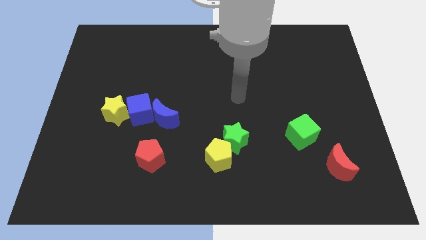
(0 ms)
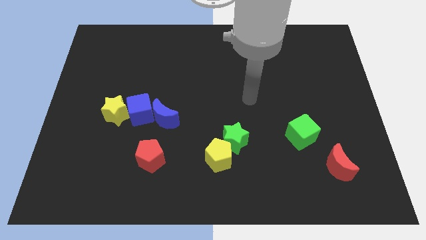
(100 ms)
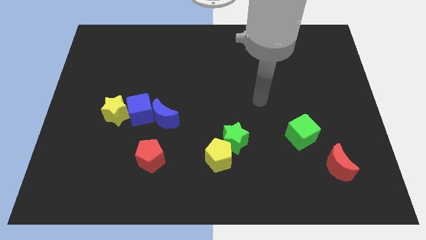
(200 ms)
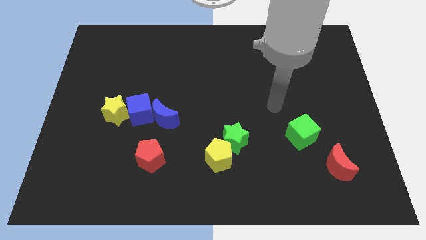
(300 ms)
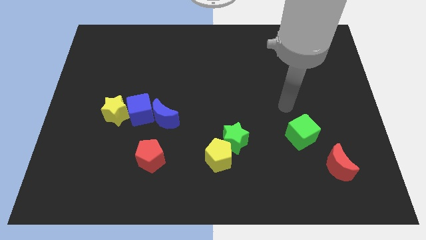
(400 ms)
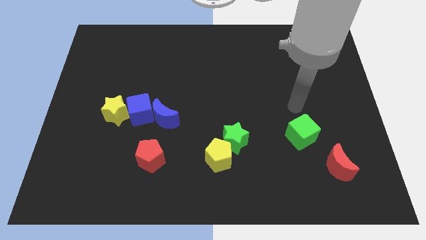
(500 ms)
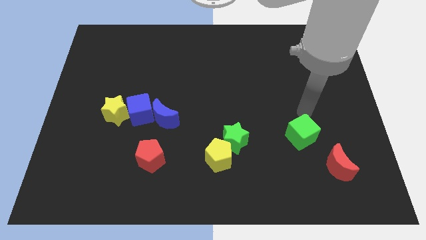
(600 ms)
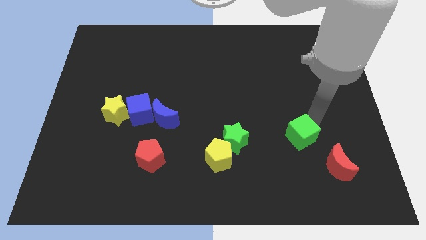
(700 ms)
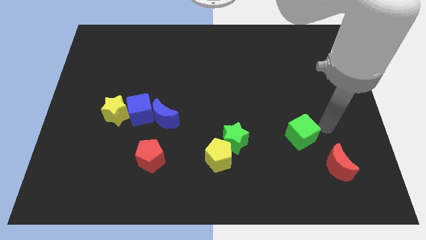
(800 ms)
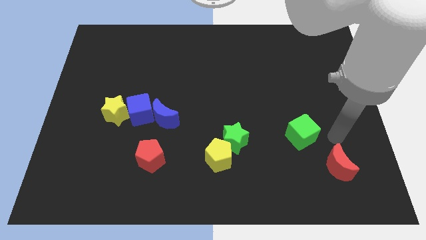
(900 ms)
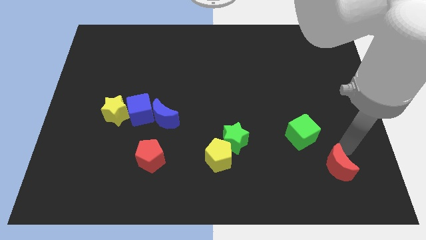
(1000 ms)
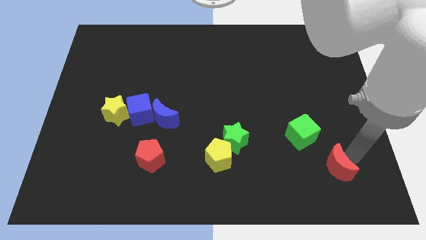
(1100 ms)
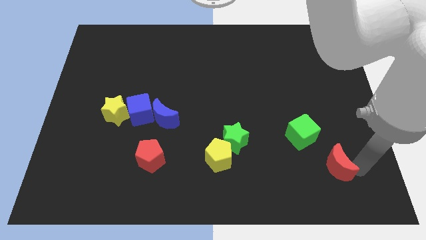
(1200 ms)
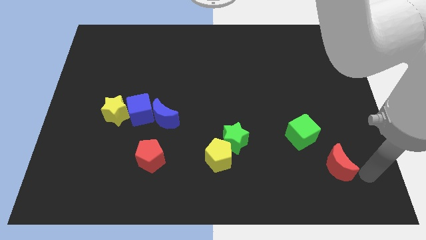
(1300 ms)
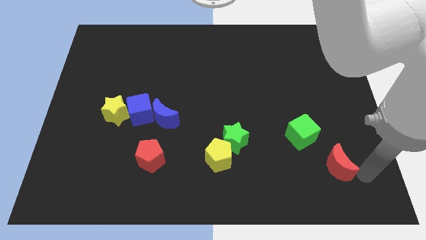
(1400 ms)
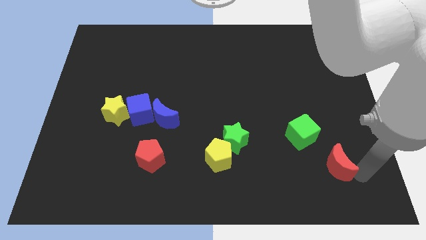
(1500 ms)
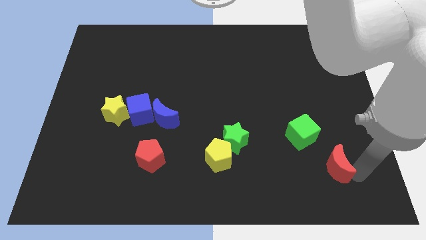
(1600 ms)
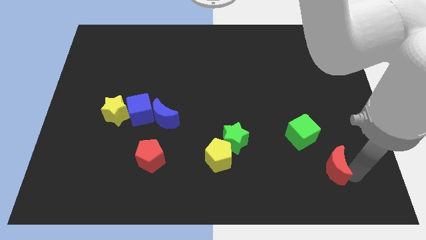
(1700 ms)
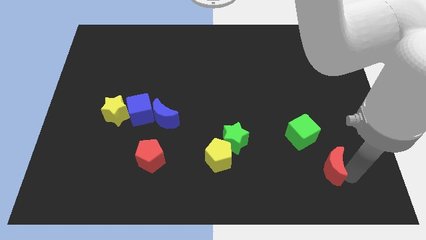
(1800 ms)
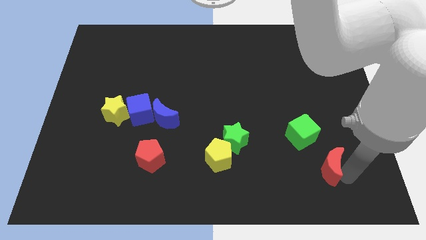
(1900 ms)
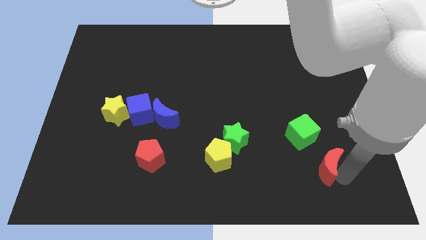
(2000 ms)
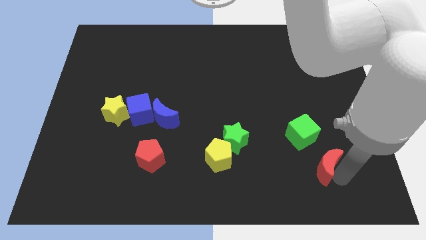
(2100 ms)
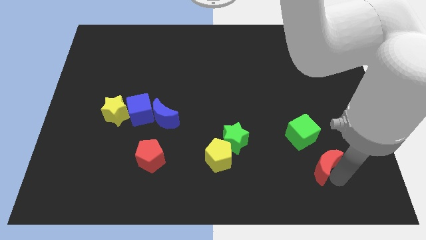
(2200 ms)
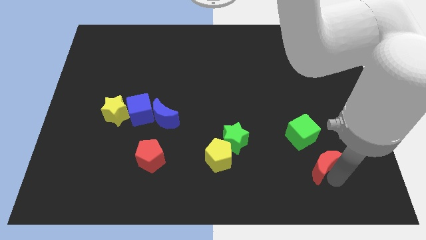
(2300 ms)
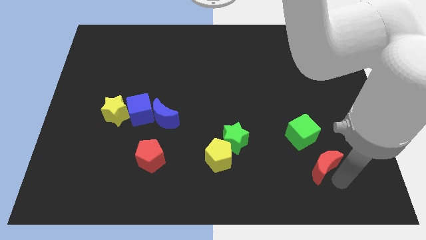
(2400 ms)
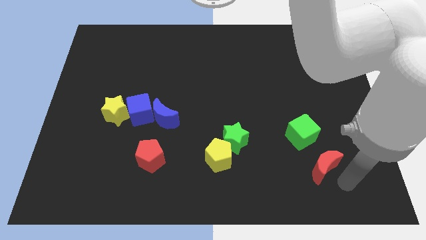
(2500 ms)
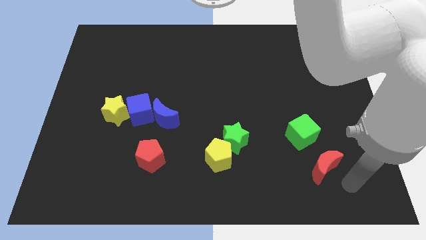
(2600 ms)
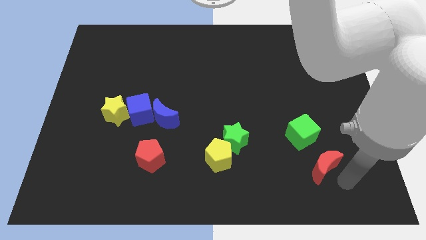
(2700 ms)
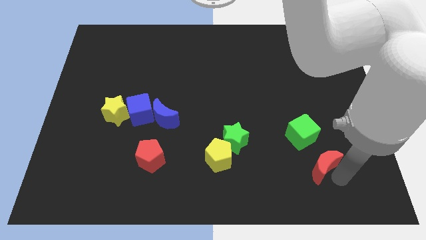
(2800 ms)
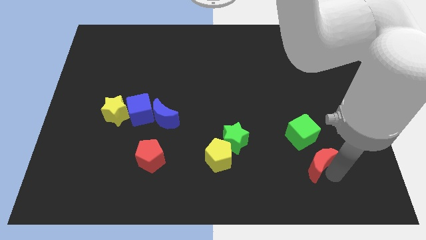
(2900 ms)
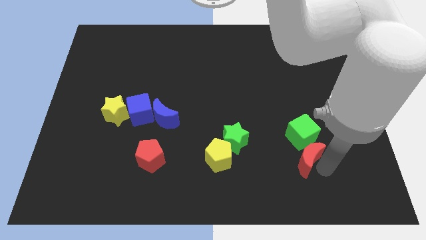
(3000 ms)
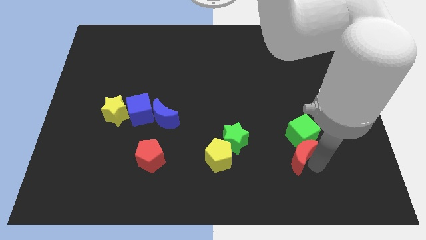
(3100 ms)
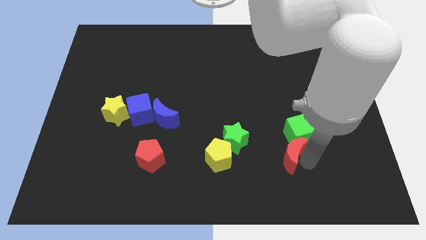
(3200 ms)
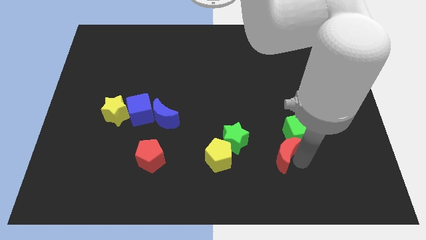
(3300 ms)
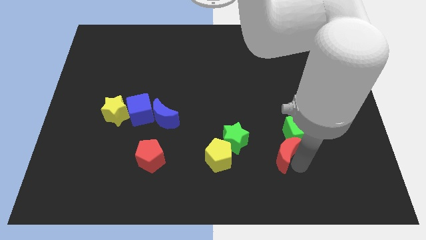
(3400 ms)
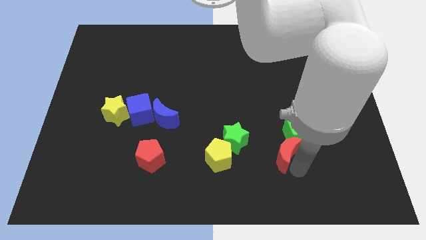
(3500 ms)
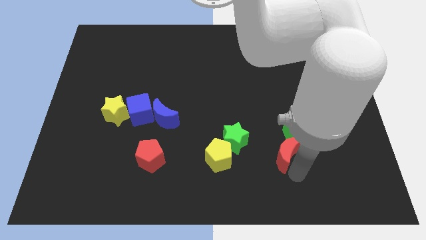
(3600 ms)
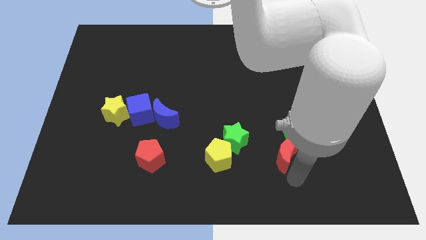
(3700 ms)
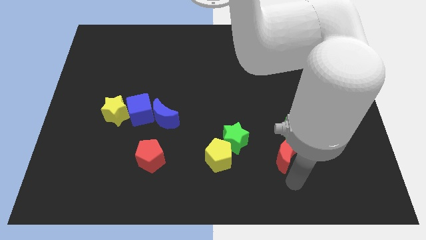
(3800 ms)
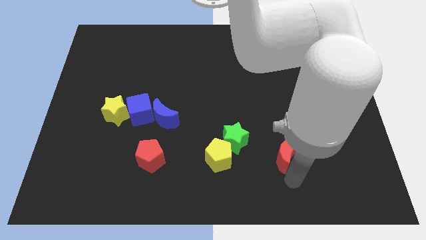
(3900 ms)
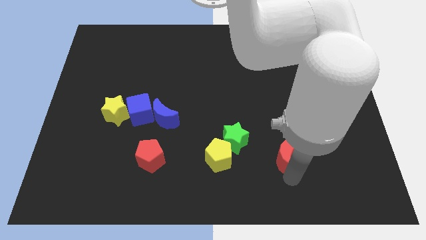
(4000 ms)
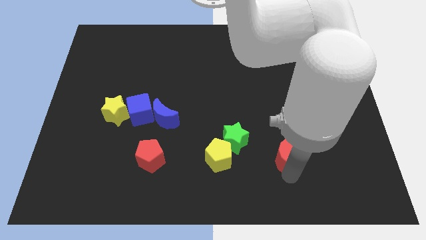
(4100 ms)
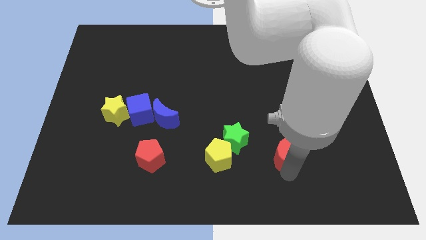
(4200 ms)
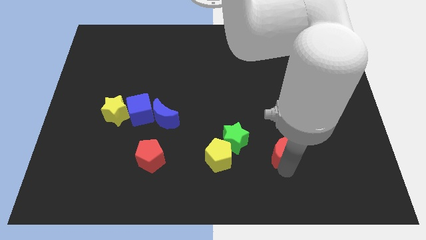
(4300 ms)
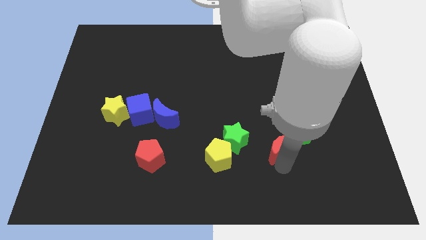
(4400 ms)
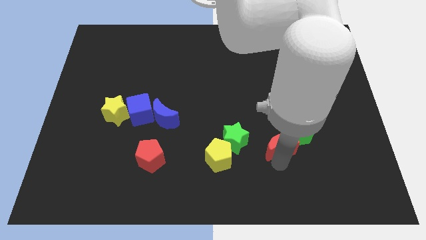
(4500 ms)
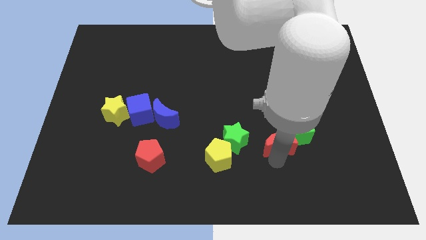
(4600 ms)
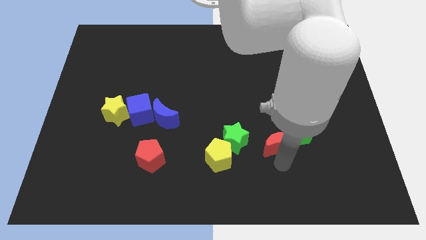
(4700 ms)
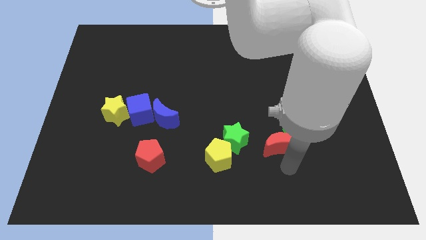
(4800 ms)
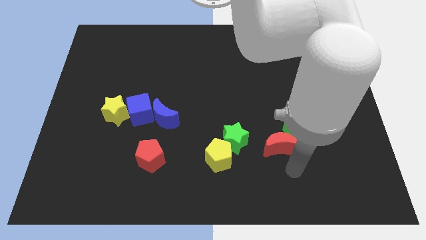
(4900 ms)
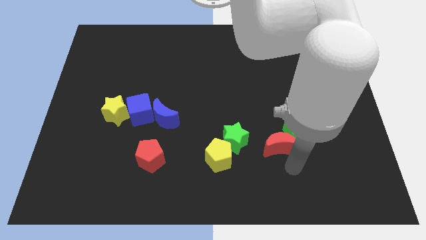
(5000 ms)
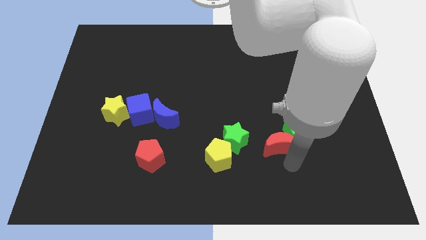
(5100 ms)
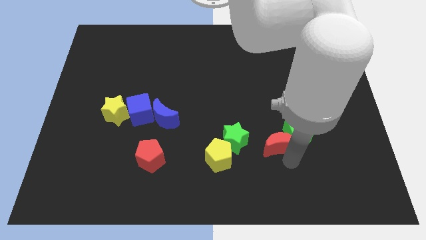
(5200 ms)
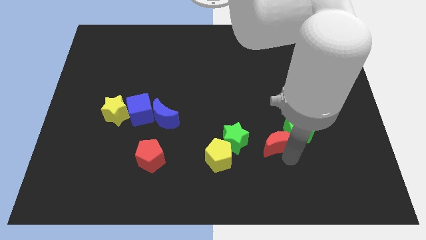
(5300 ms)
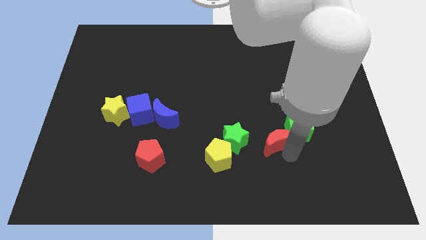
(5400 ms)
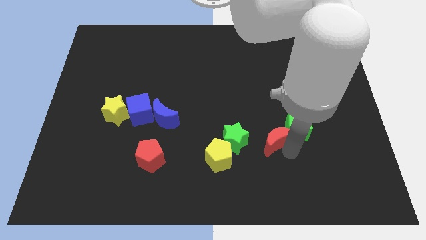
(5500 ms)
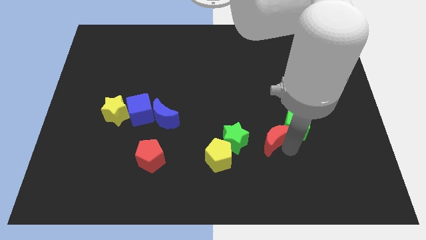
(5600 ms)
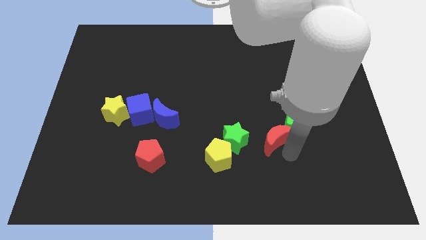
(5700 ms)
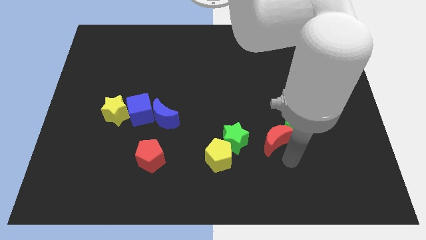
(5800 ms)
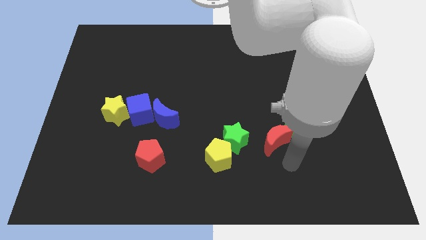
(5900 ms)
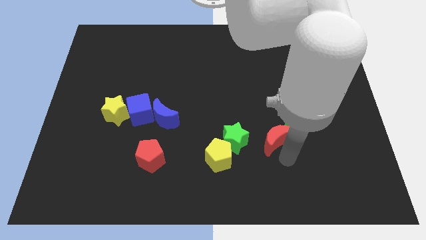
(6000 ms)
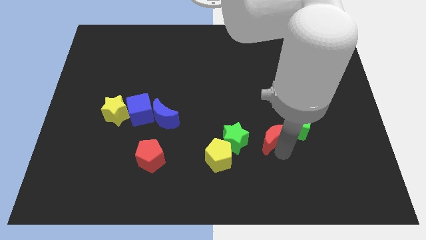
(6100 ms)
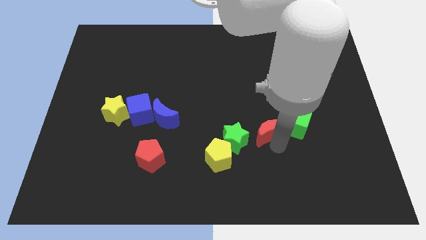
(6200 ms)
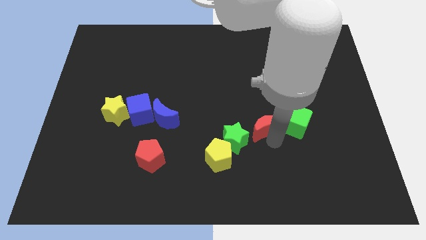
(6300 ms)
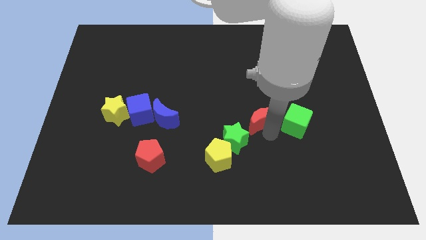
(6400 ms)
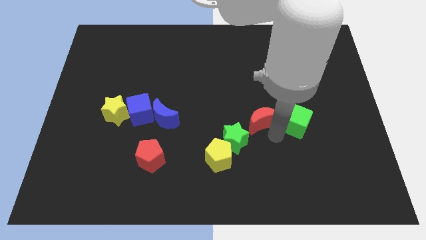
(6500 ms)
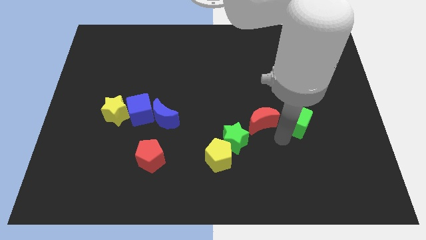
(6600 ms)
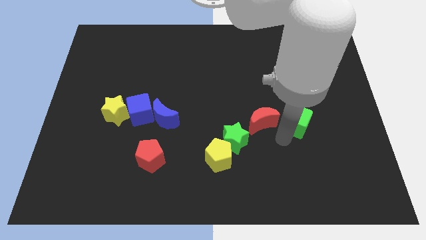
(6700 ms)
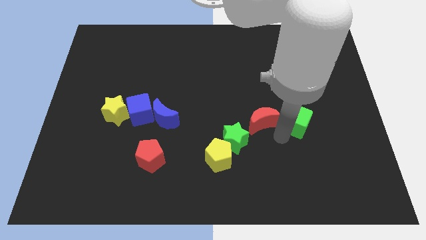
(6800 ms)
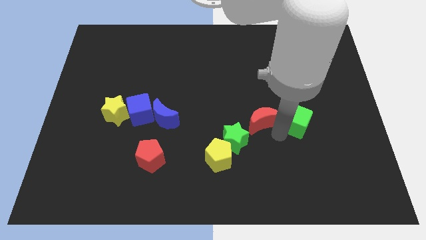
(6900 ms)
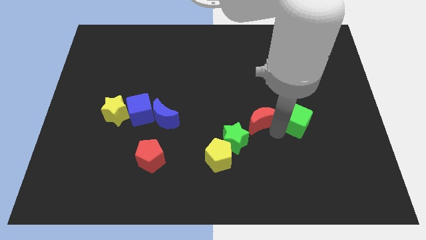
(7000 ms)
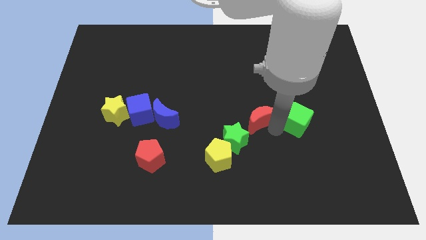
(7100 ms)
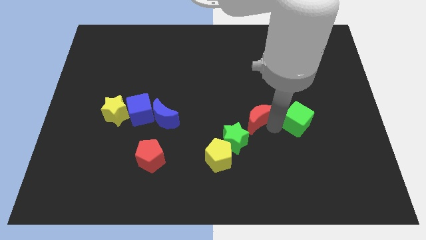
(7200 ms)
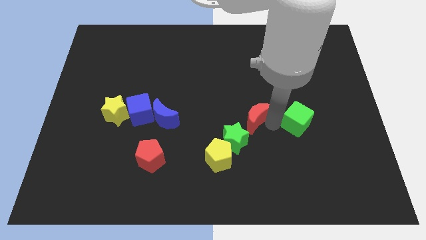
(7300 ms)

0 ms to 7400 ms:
slide the red moon upwards and then left

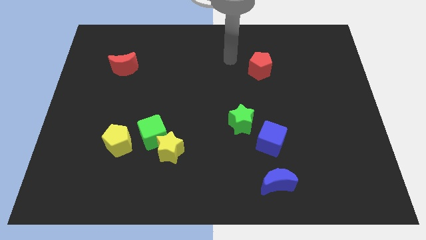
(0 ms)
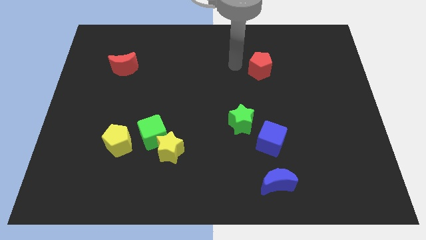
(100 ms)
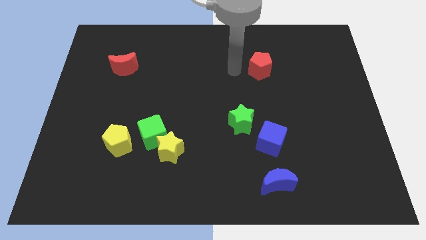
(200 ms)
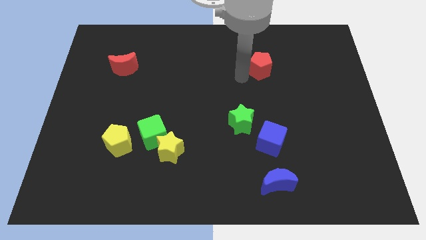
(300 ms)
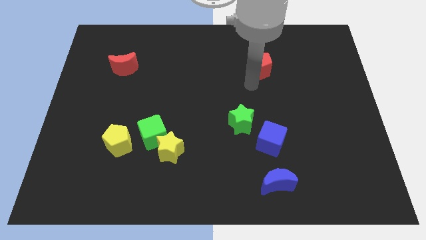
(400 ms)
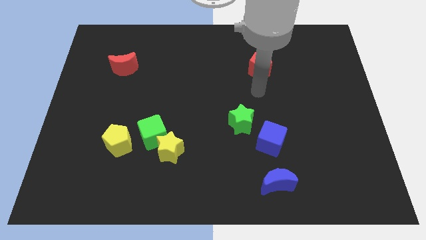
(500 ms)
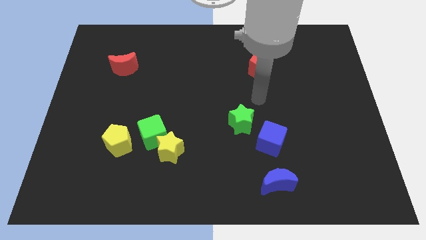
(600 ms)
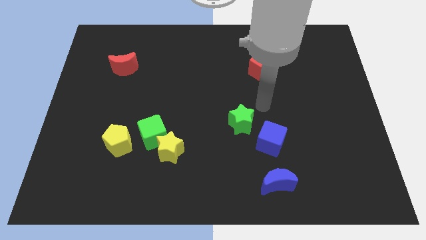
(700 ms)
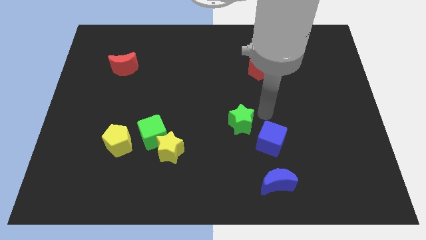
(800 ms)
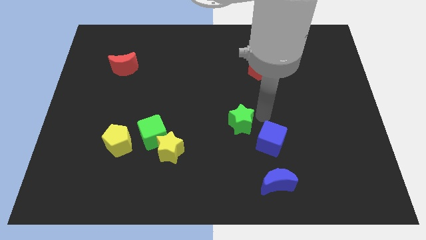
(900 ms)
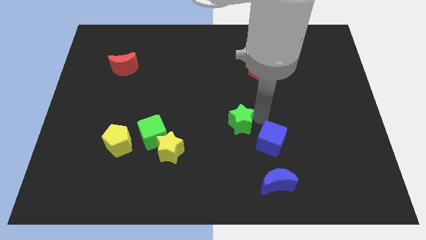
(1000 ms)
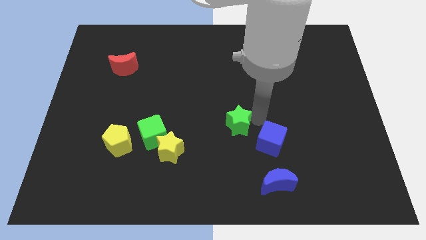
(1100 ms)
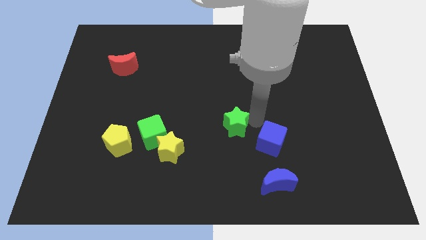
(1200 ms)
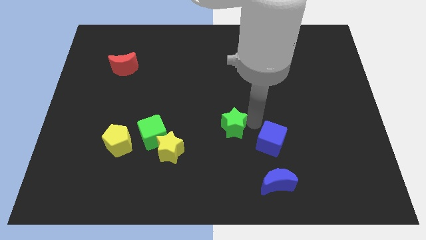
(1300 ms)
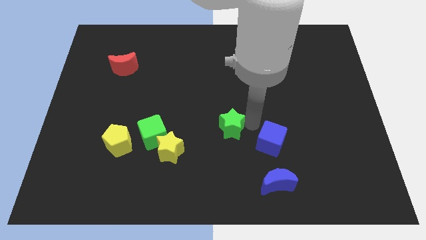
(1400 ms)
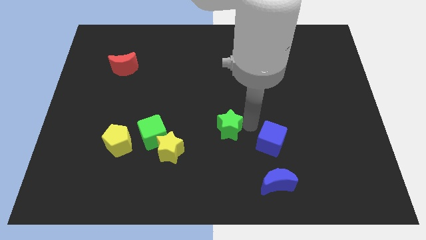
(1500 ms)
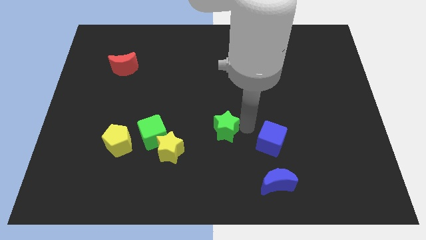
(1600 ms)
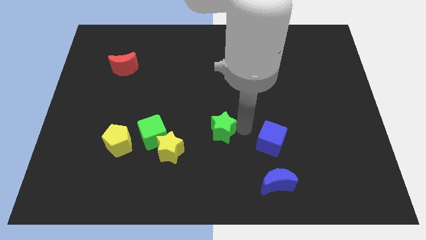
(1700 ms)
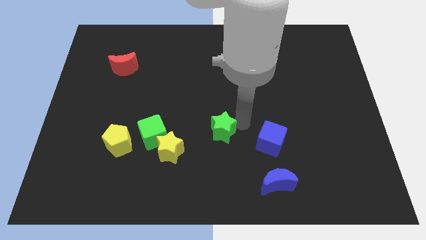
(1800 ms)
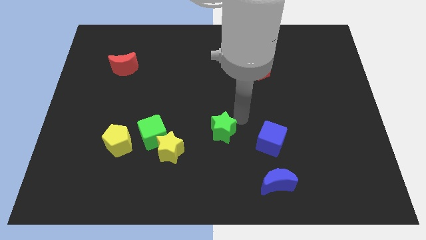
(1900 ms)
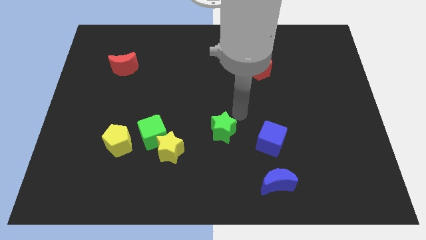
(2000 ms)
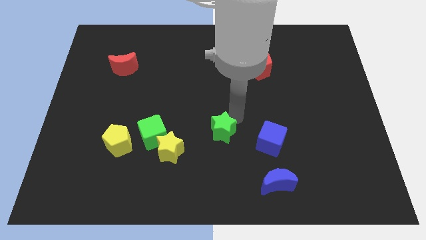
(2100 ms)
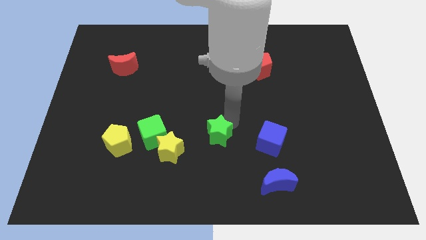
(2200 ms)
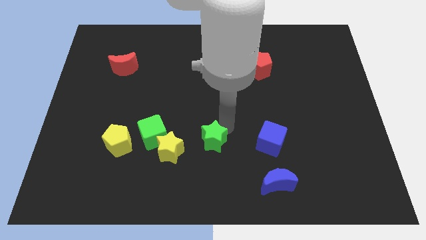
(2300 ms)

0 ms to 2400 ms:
move the green star downwards and left diagonally slightly
